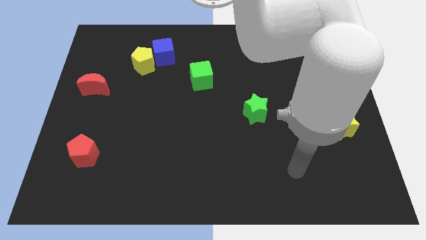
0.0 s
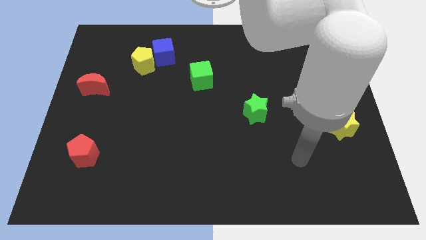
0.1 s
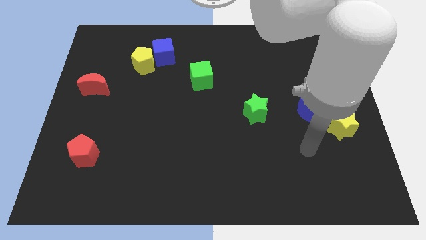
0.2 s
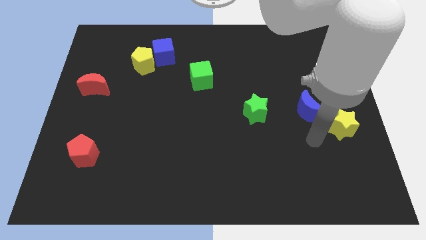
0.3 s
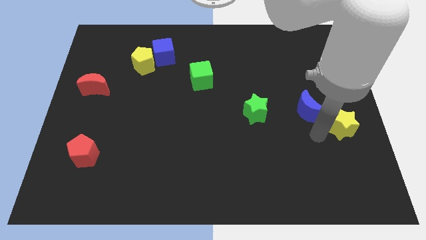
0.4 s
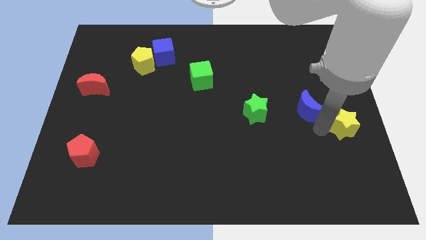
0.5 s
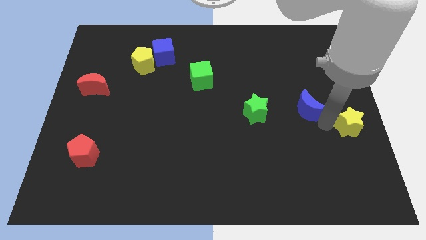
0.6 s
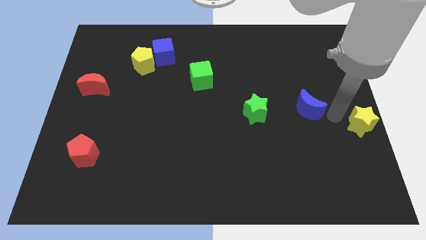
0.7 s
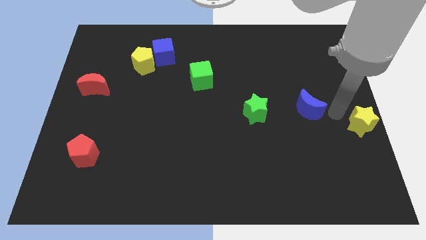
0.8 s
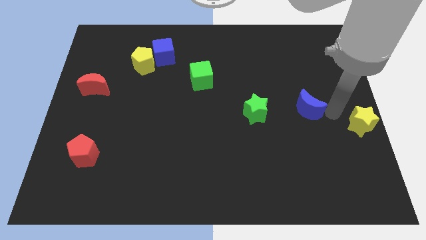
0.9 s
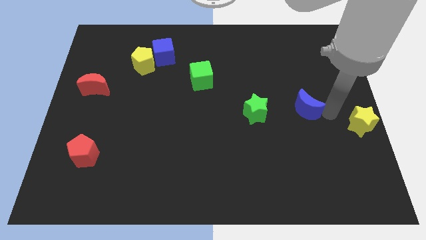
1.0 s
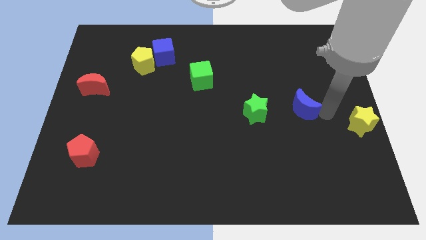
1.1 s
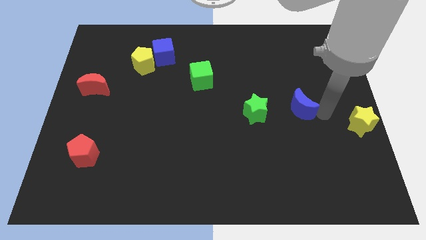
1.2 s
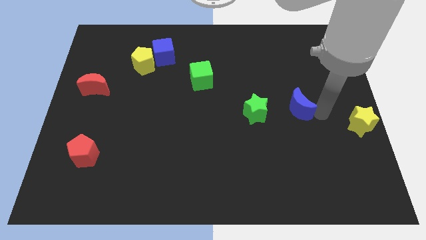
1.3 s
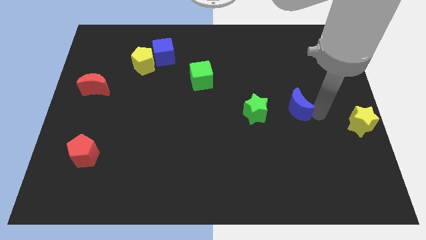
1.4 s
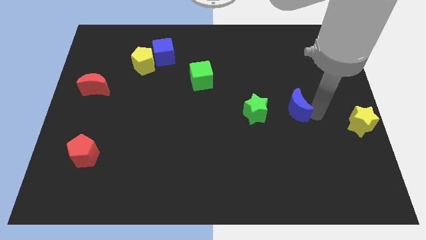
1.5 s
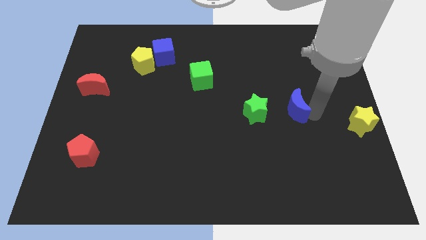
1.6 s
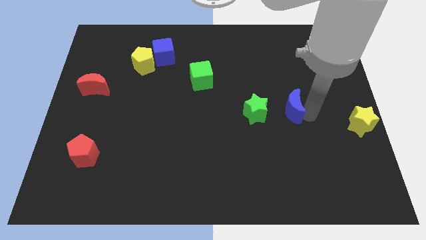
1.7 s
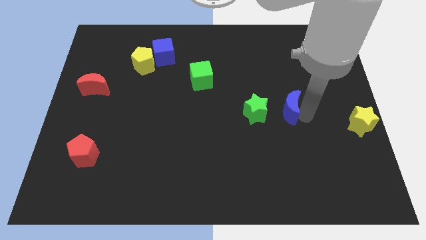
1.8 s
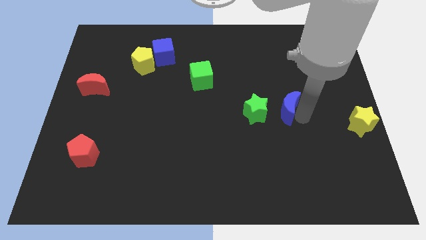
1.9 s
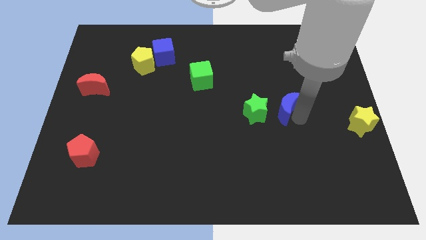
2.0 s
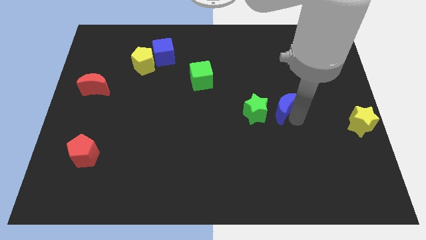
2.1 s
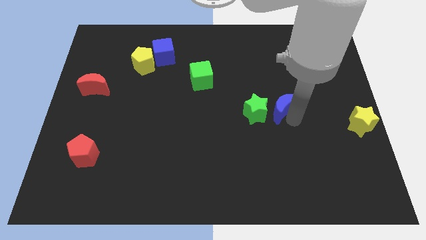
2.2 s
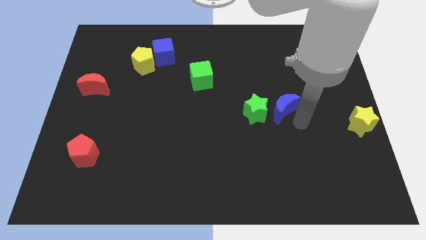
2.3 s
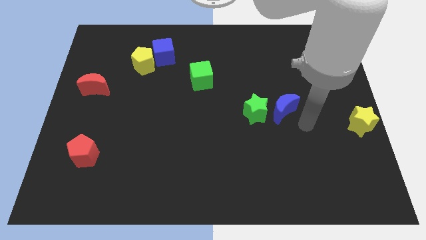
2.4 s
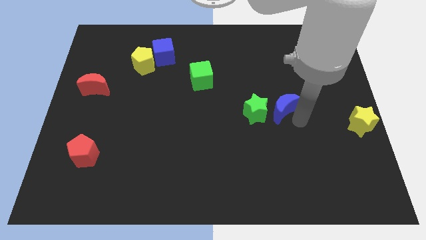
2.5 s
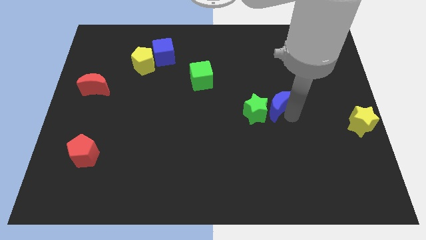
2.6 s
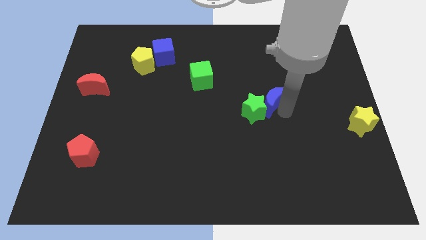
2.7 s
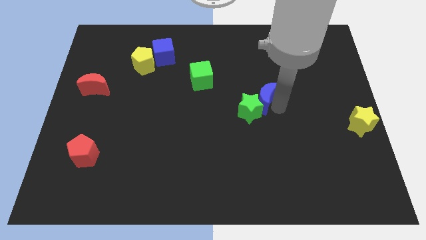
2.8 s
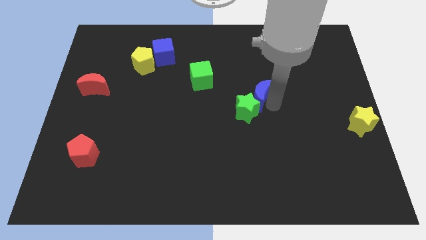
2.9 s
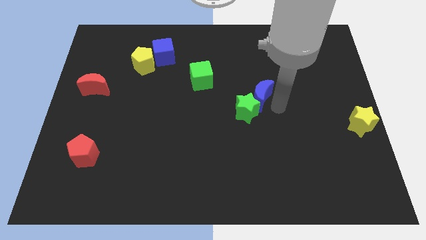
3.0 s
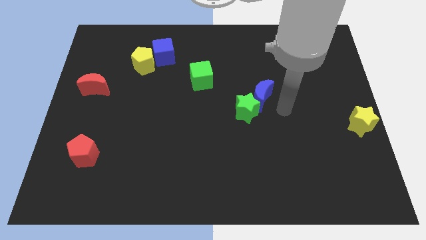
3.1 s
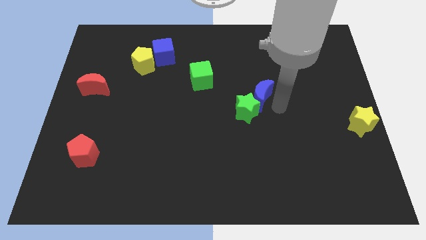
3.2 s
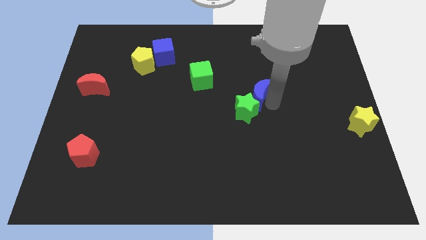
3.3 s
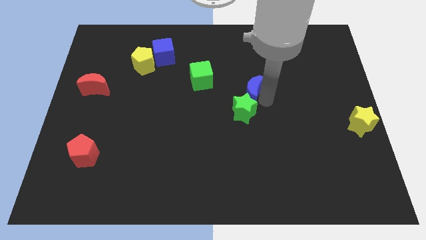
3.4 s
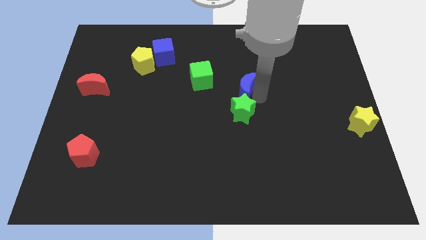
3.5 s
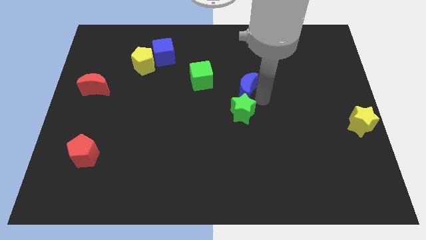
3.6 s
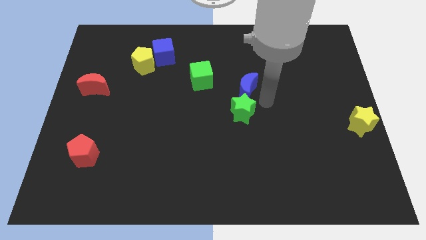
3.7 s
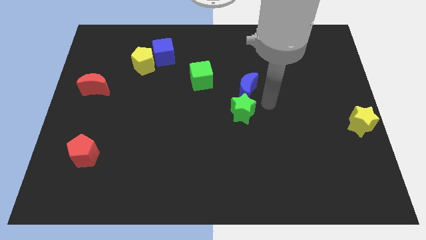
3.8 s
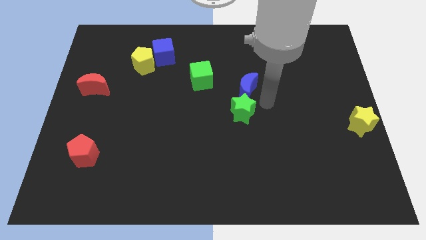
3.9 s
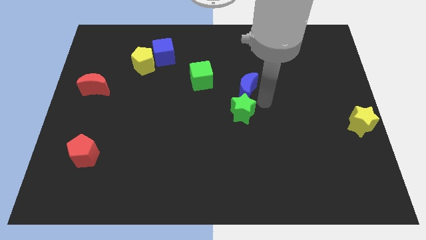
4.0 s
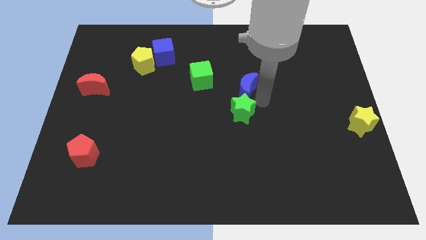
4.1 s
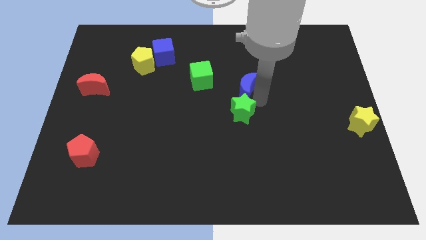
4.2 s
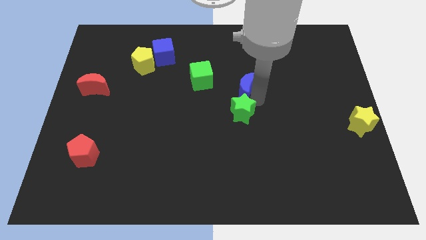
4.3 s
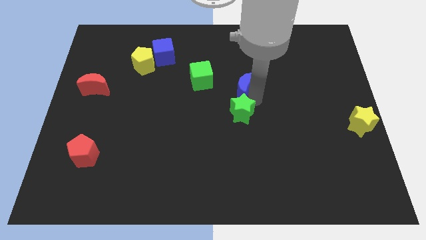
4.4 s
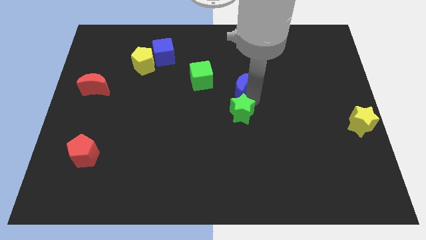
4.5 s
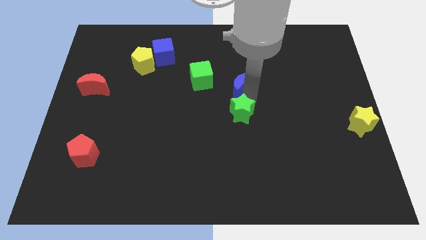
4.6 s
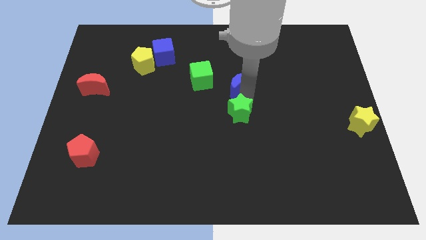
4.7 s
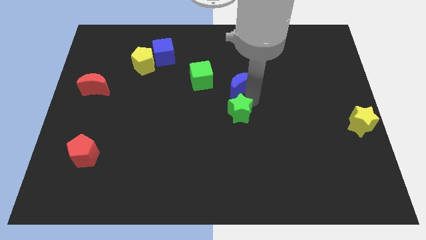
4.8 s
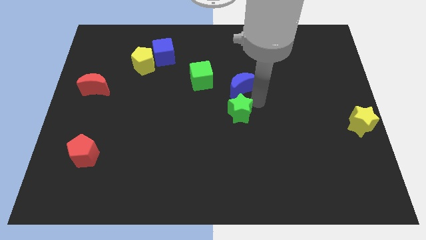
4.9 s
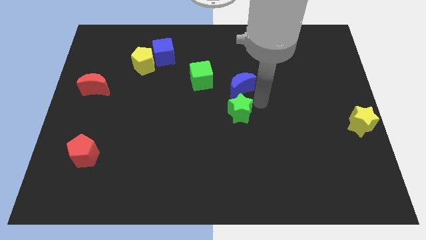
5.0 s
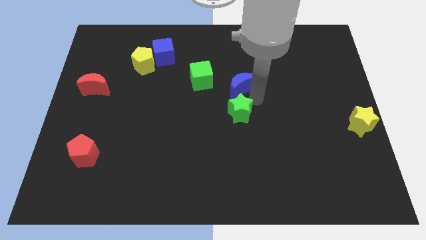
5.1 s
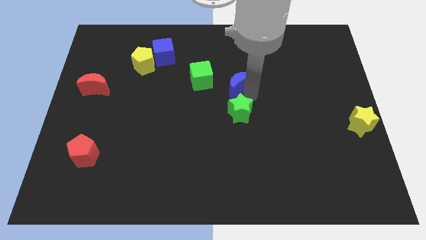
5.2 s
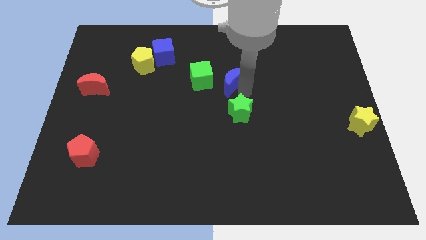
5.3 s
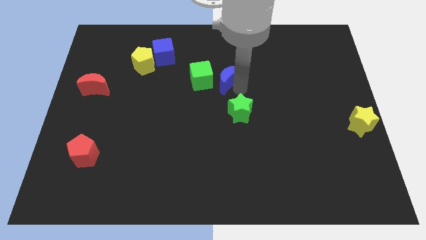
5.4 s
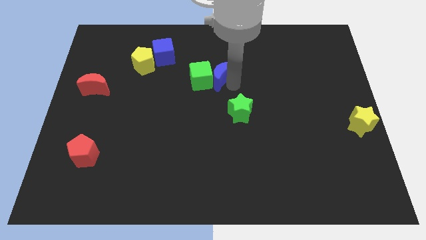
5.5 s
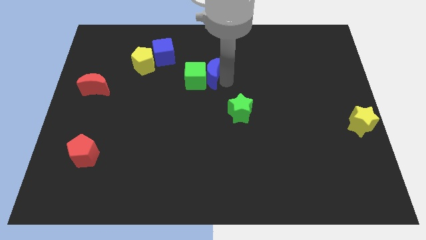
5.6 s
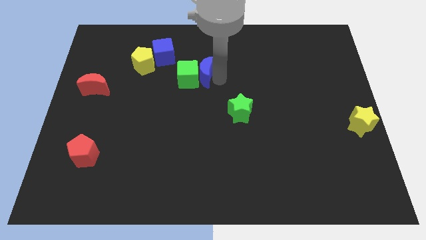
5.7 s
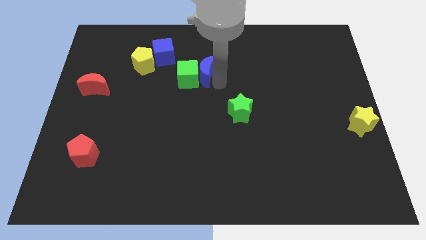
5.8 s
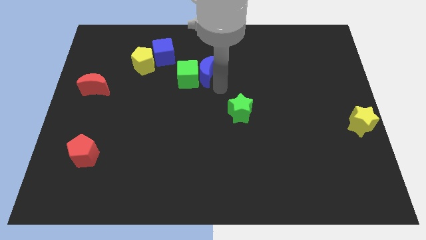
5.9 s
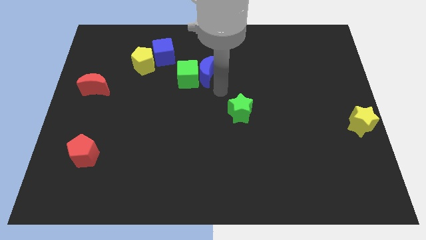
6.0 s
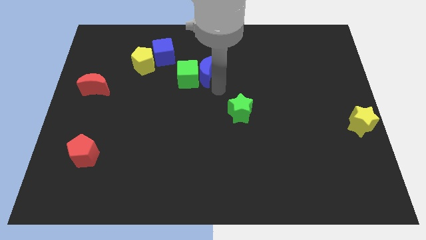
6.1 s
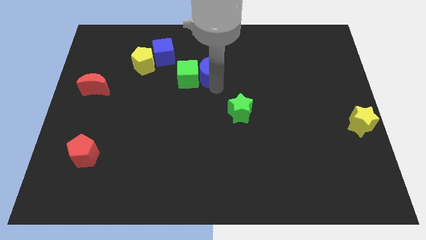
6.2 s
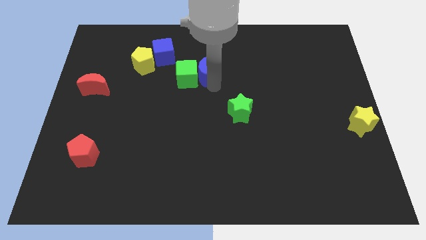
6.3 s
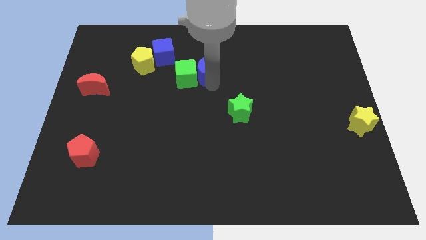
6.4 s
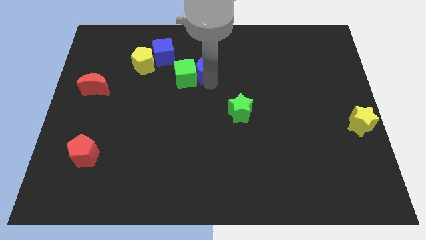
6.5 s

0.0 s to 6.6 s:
put the blue moon diagonally down and to the right of the blue cube

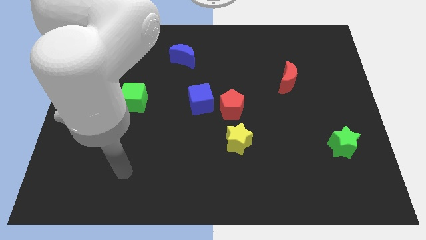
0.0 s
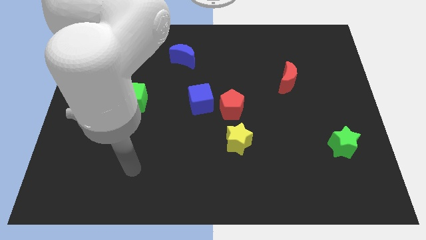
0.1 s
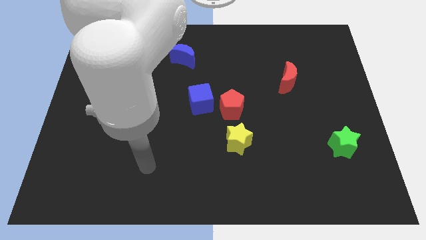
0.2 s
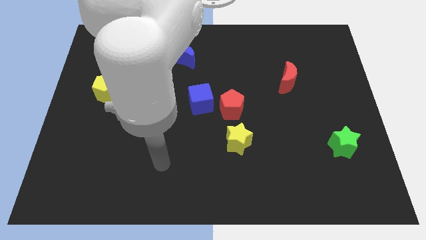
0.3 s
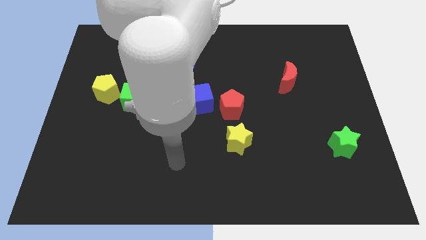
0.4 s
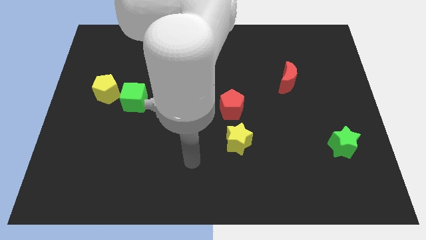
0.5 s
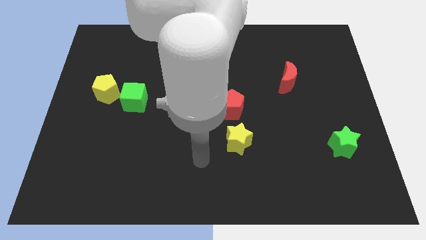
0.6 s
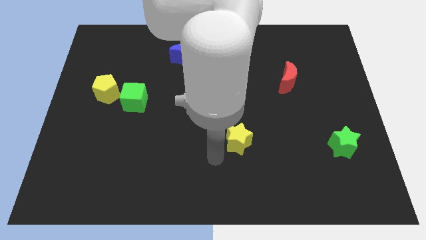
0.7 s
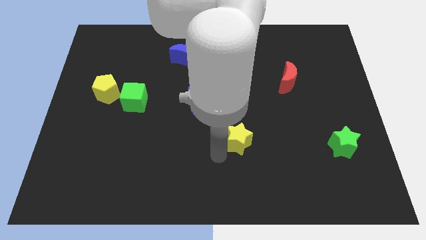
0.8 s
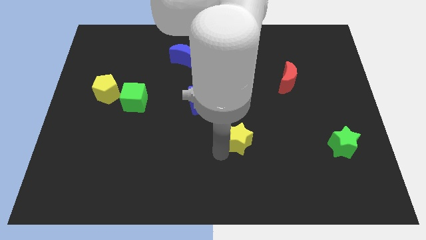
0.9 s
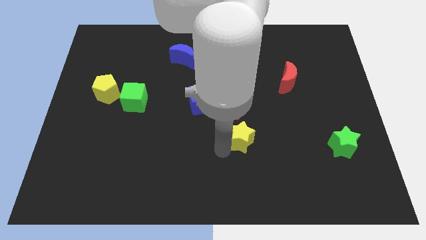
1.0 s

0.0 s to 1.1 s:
slide the yellow star to the bottom right side of the red pentagon
